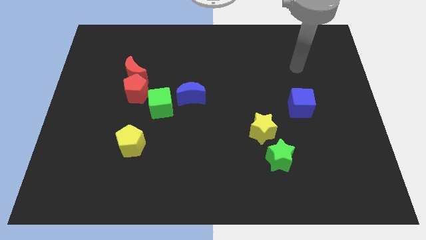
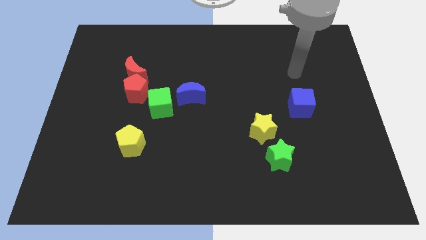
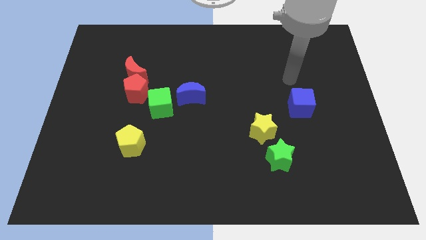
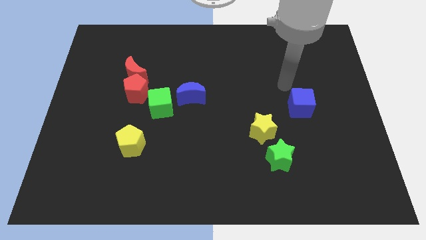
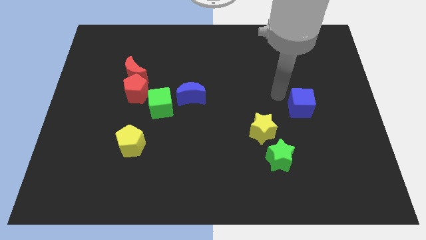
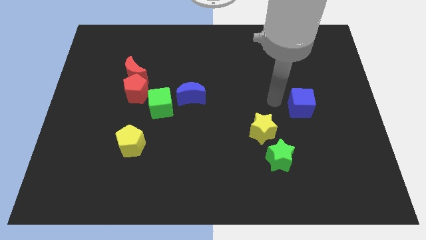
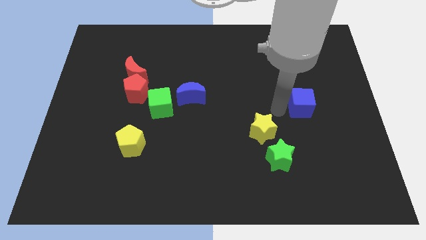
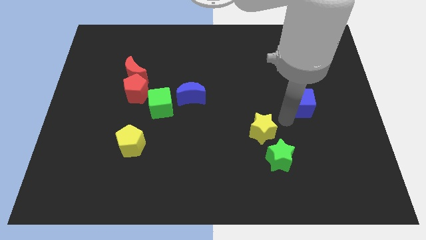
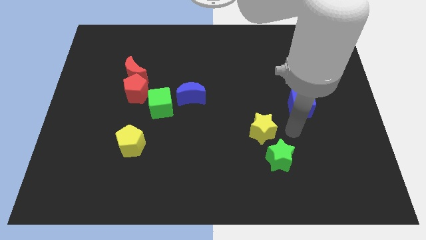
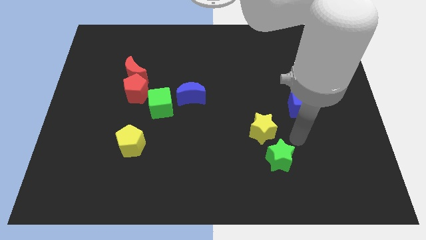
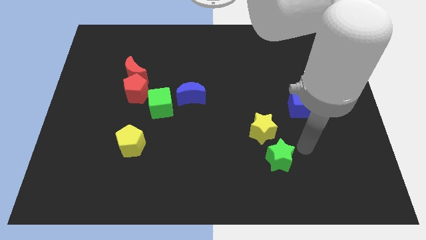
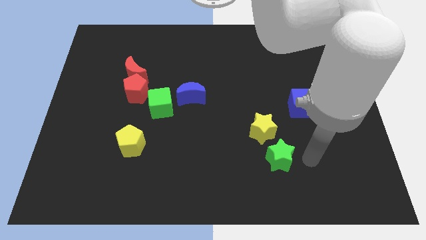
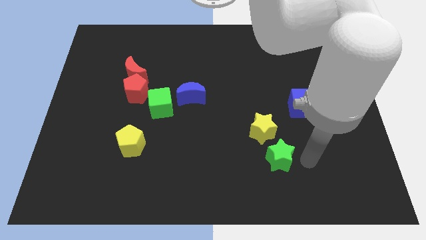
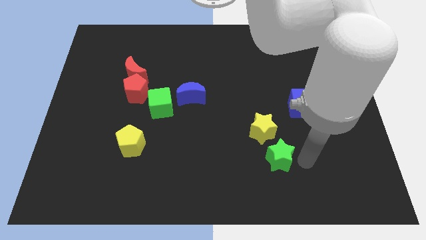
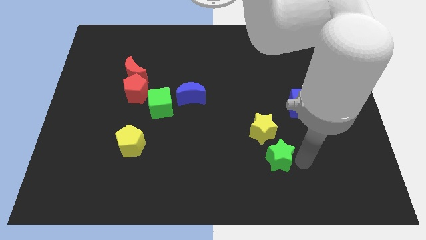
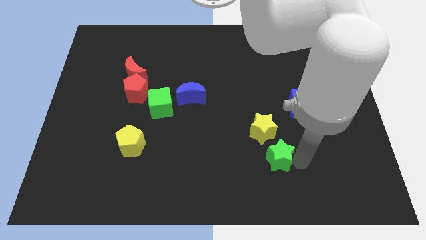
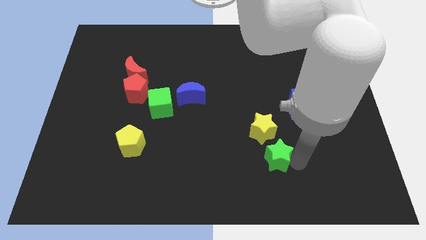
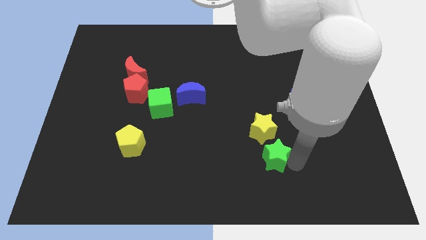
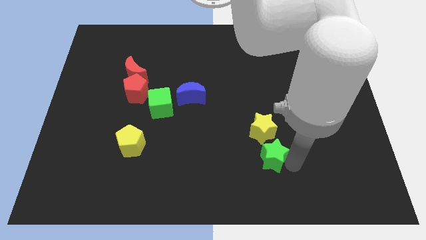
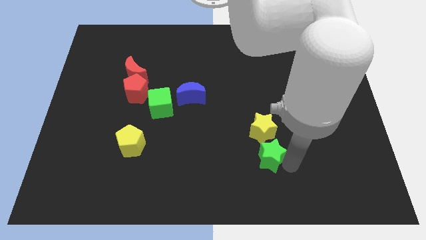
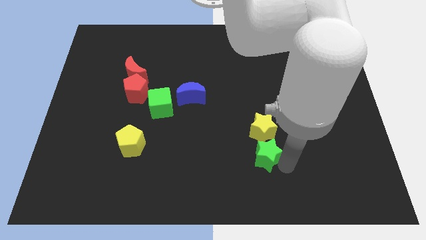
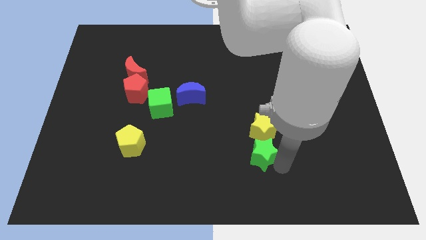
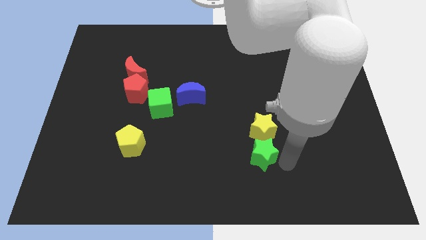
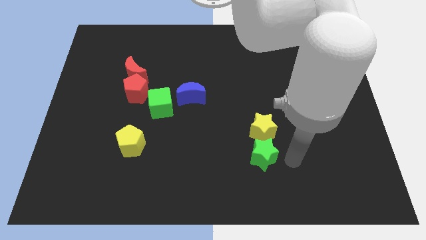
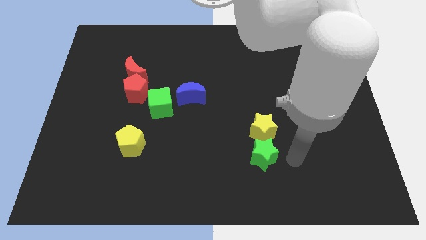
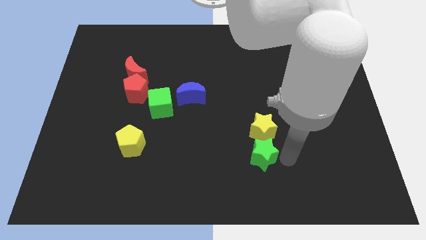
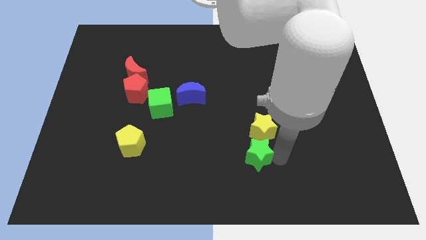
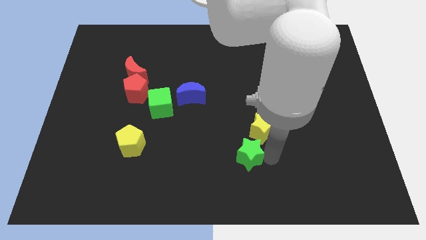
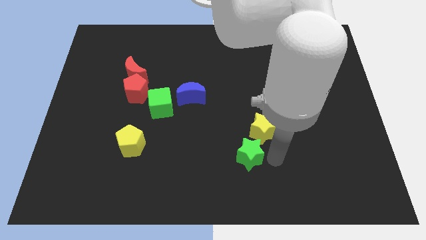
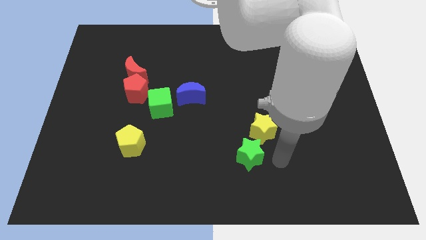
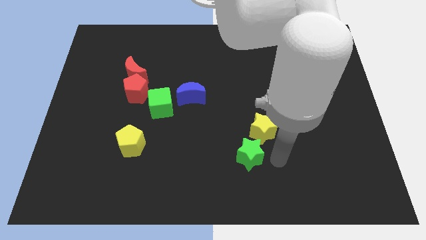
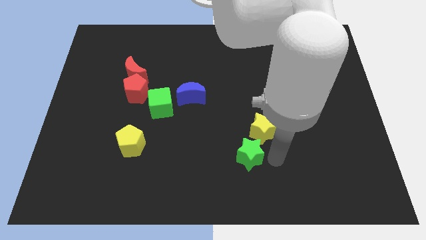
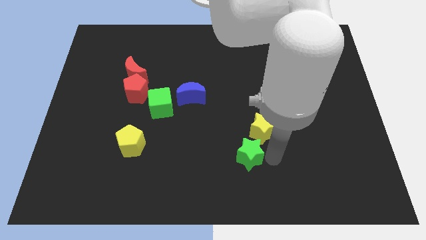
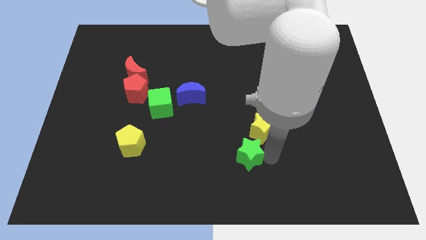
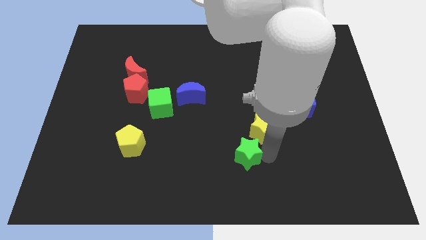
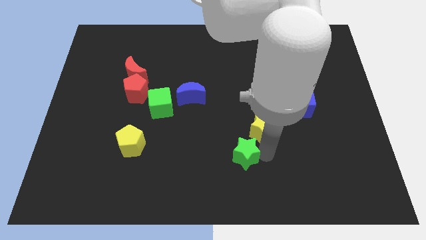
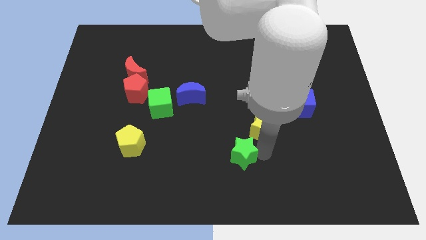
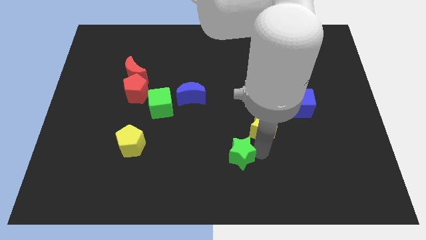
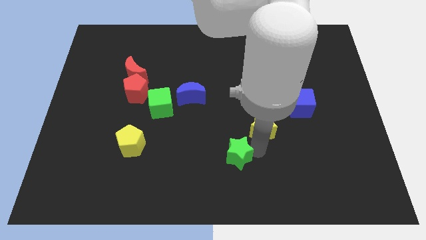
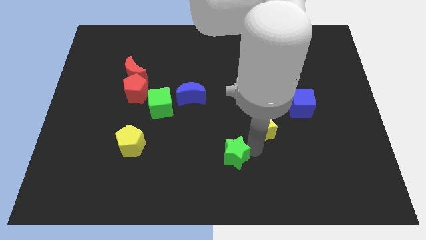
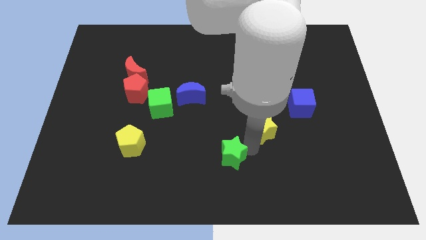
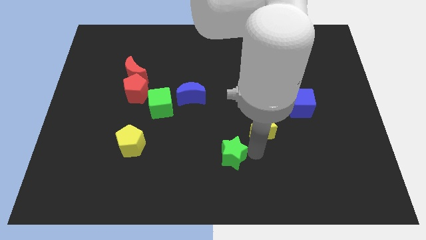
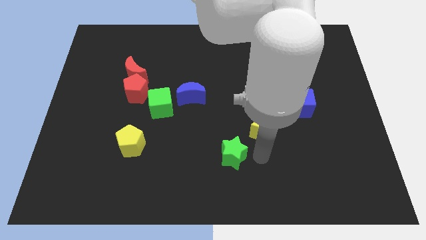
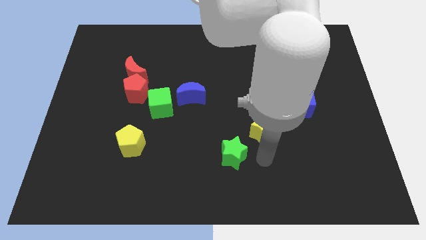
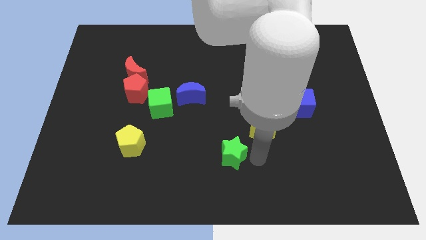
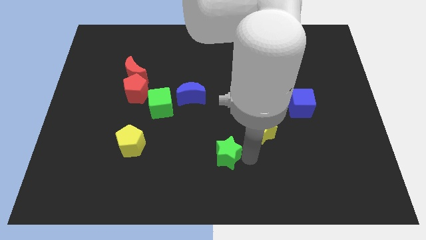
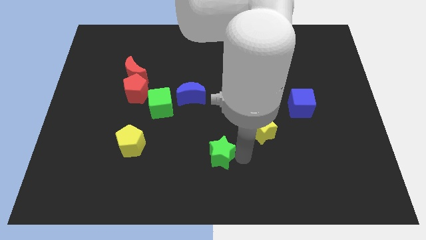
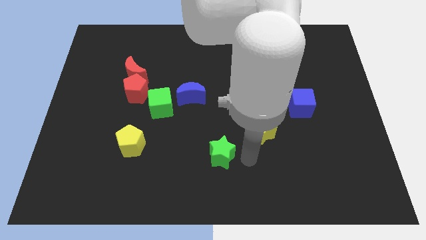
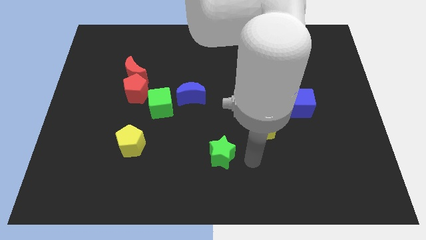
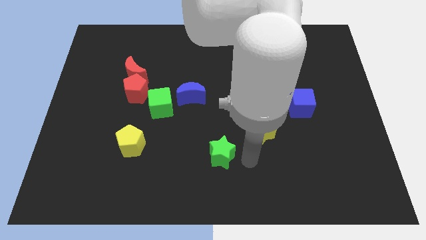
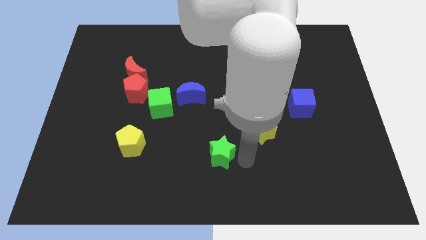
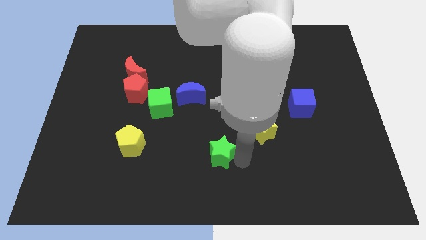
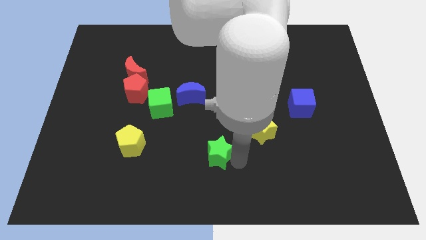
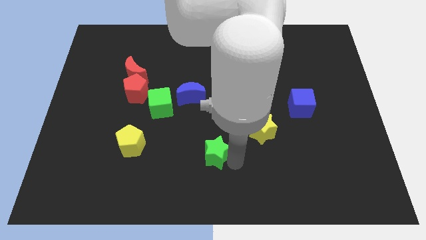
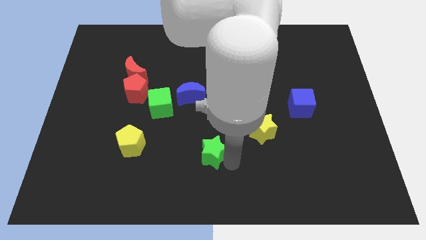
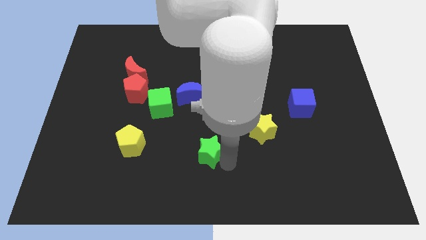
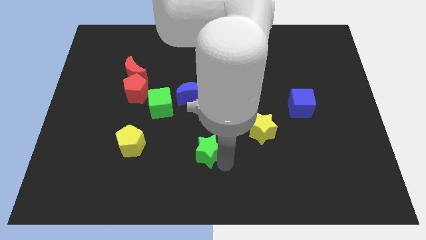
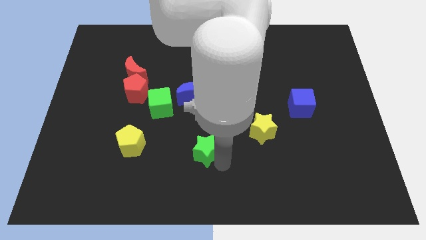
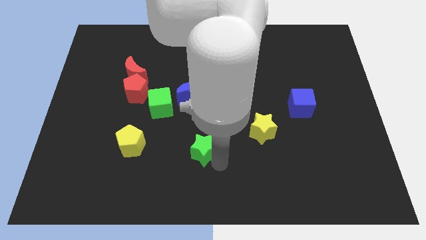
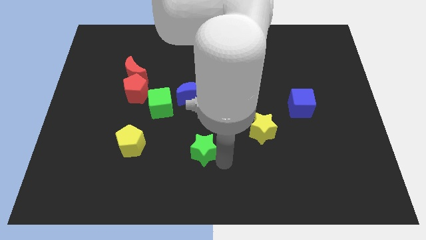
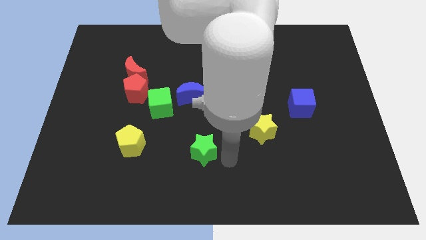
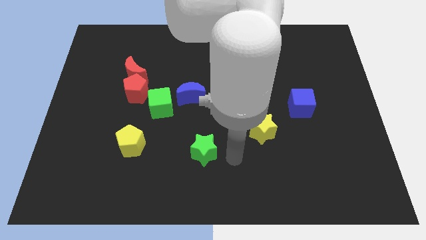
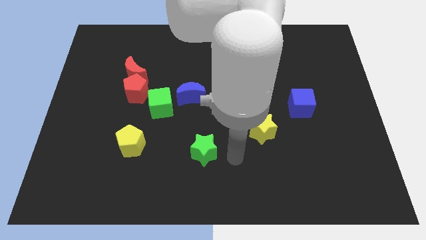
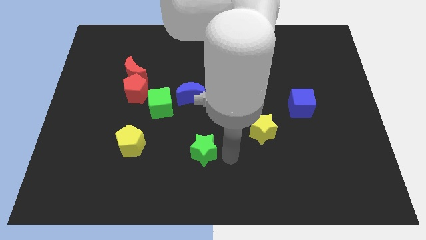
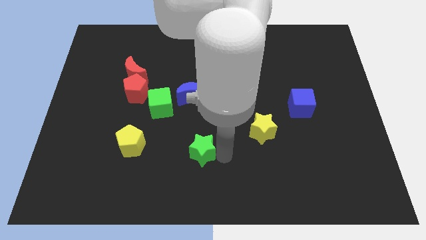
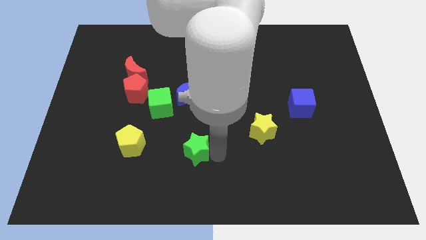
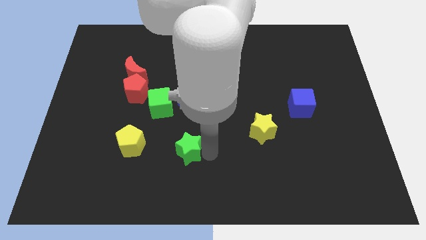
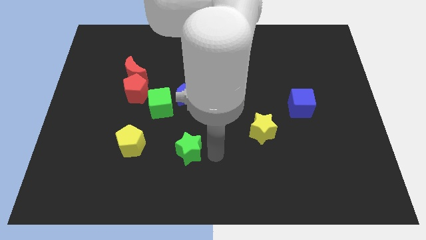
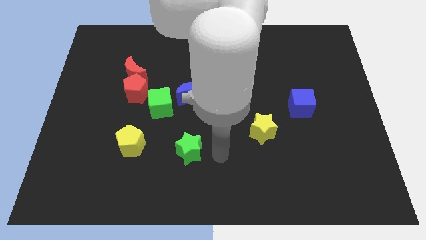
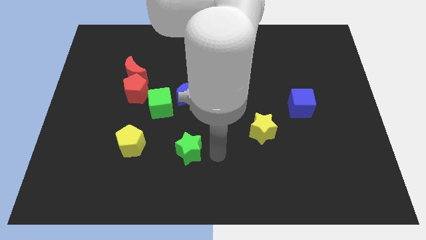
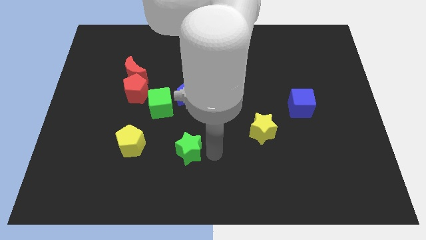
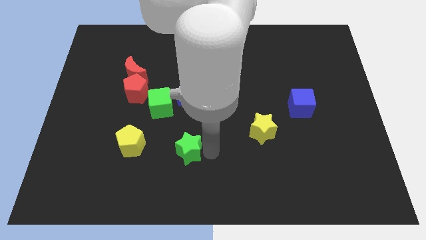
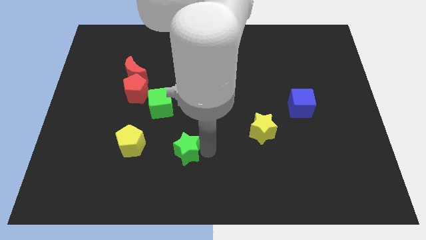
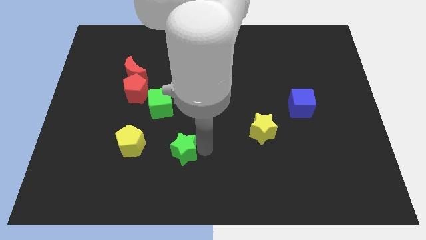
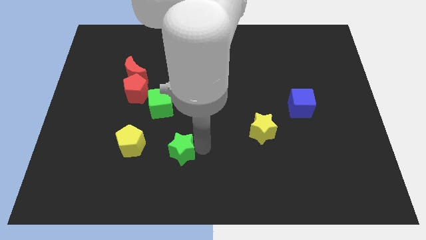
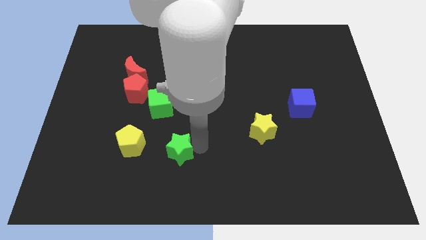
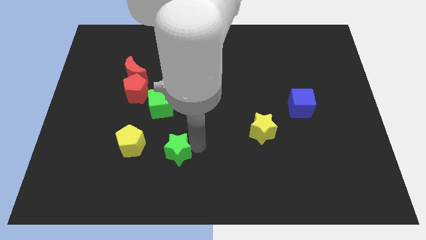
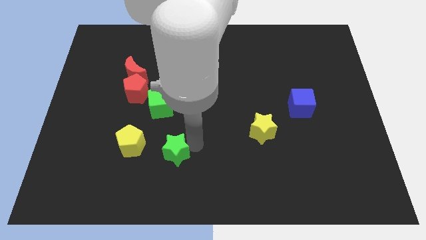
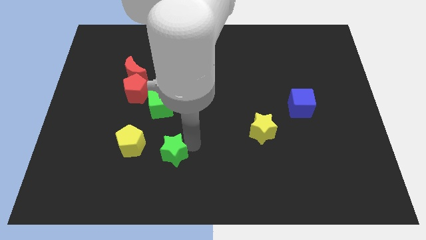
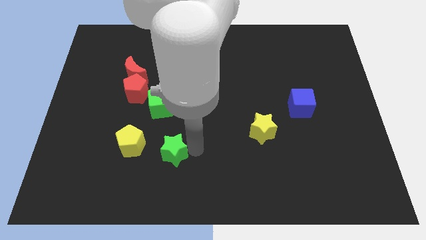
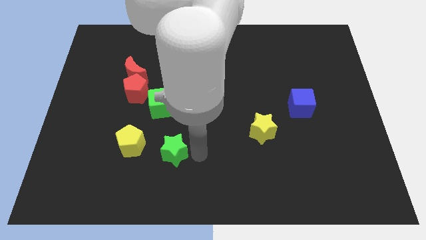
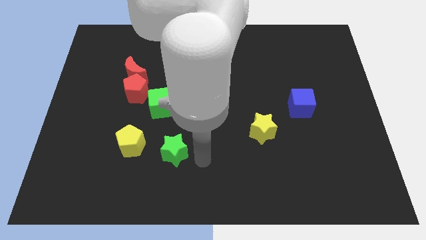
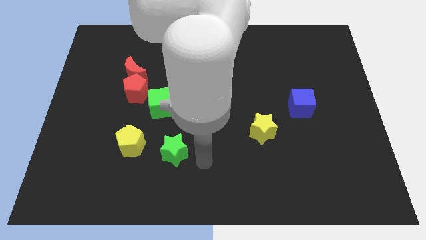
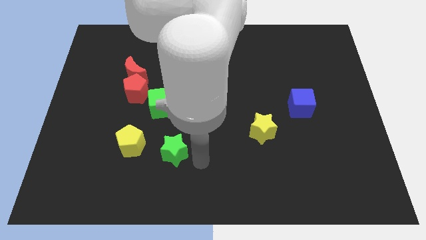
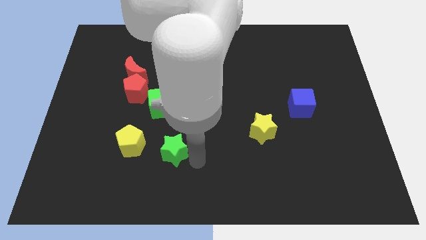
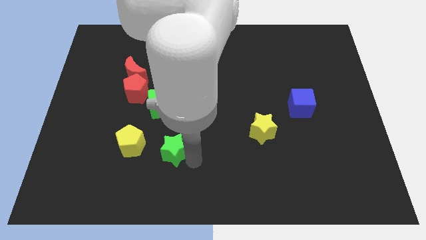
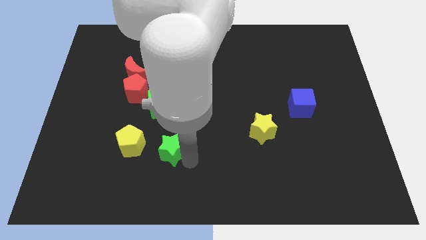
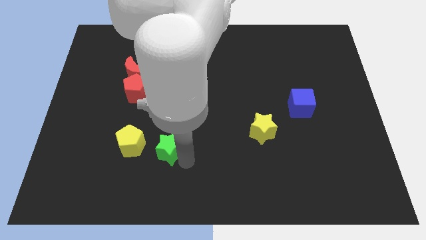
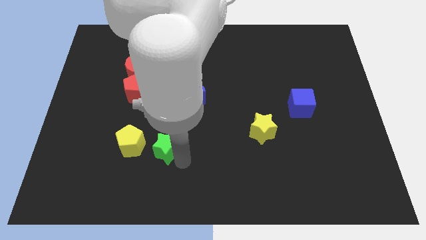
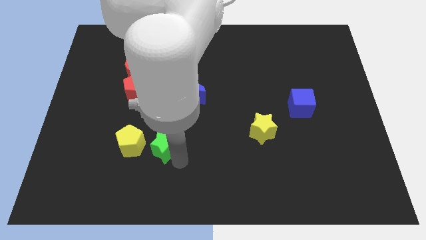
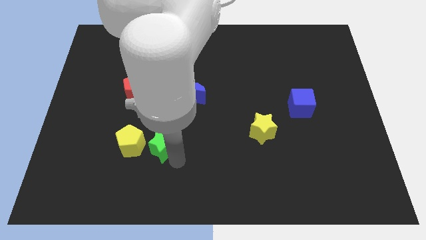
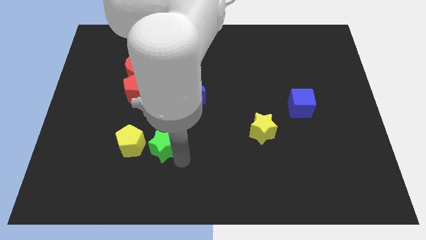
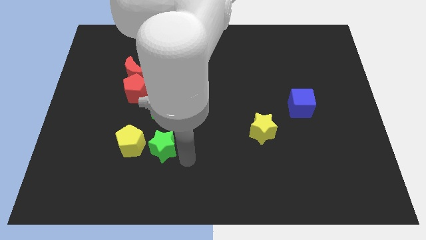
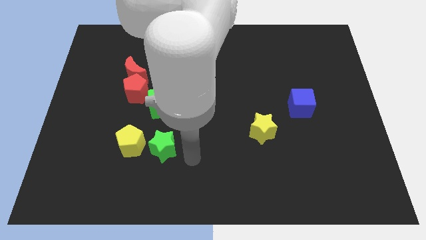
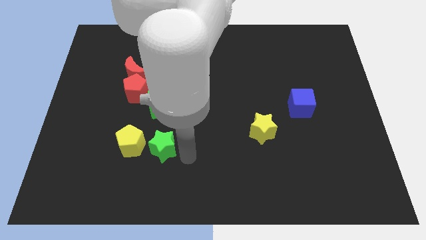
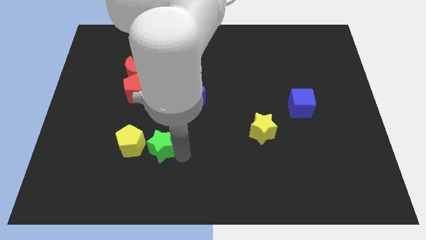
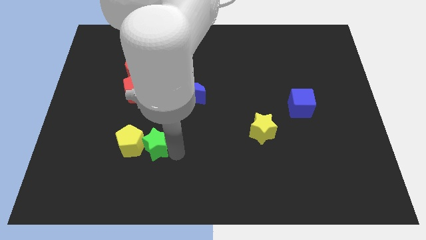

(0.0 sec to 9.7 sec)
put the green star to the yellow pentagon
